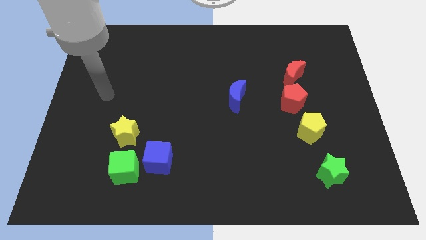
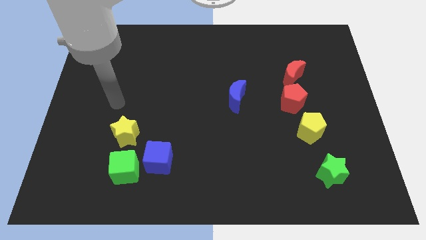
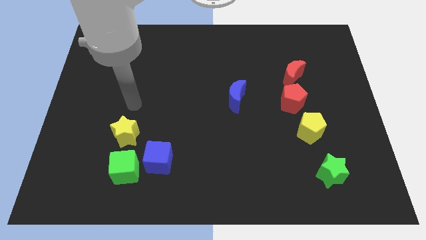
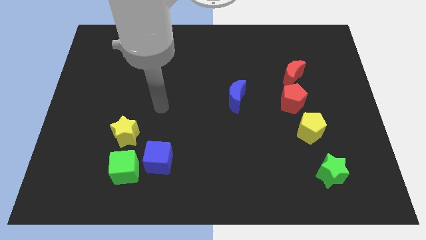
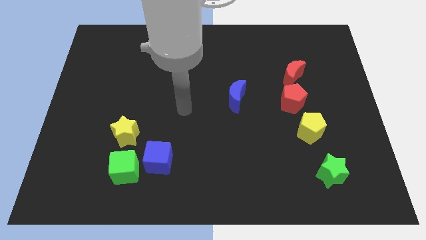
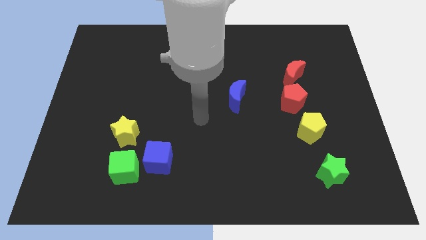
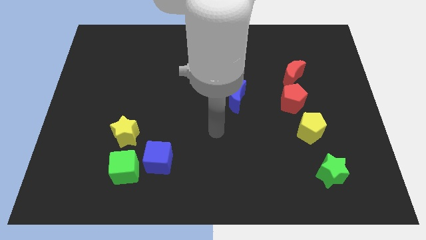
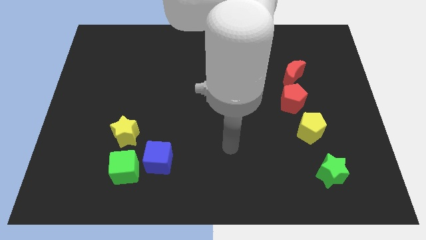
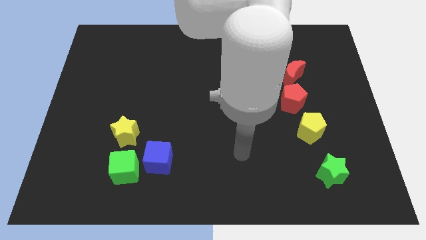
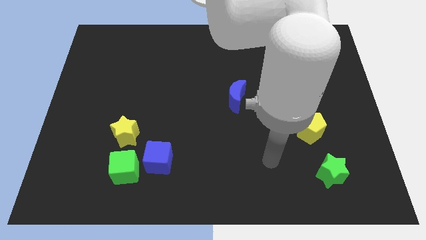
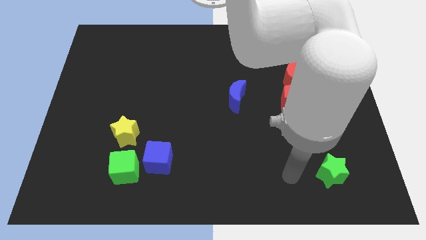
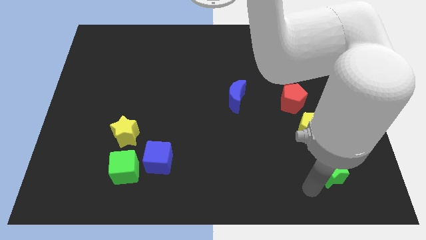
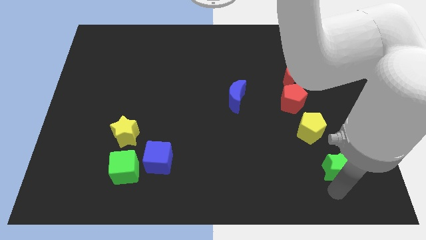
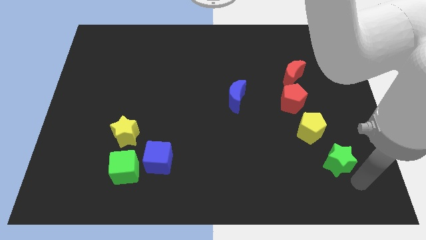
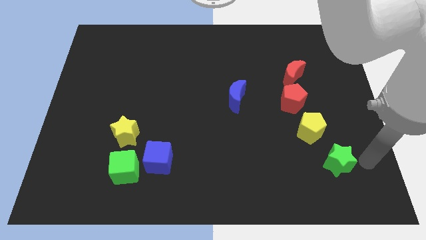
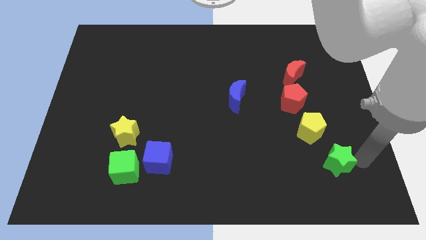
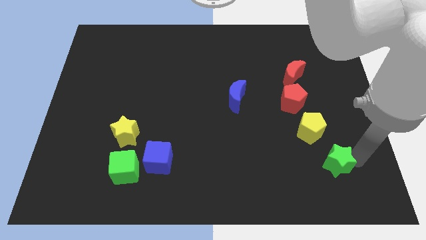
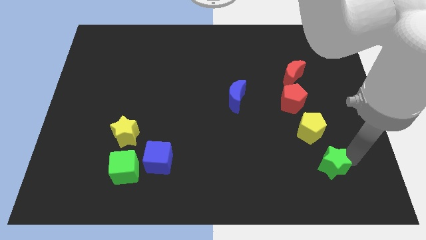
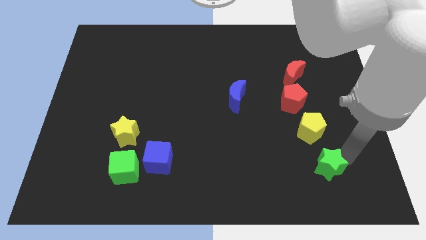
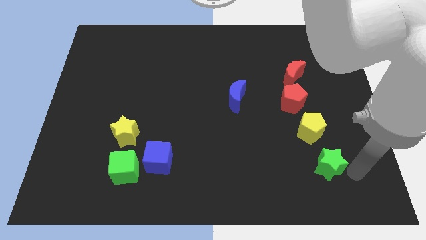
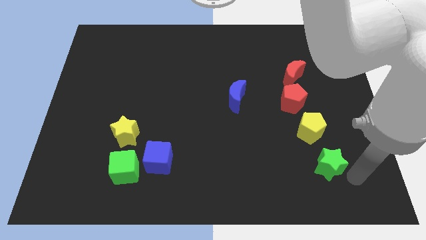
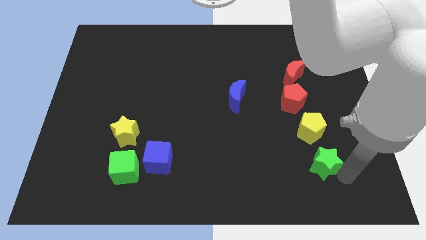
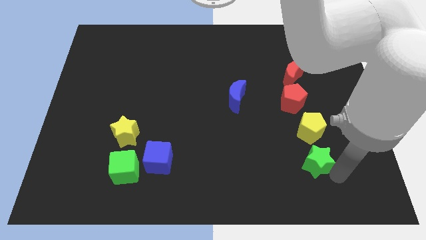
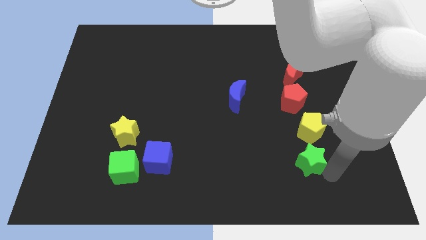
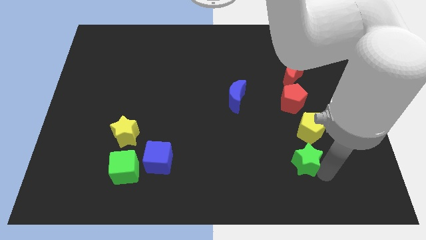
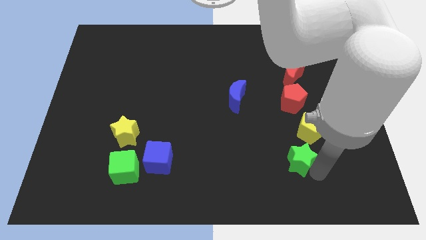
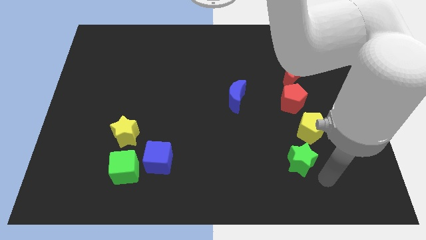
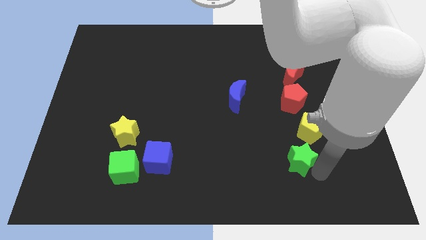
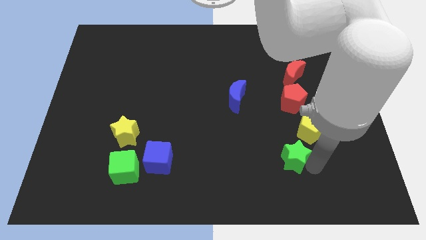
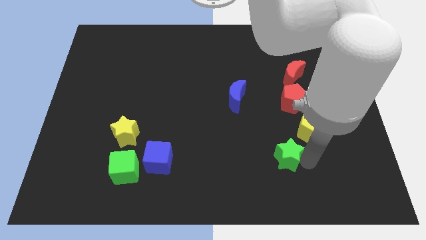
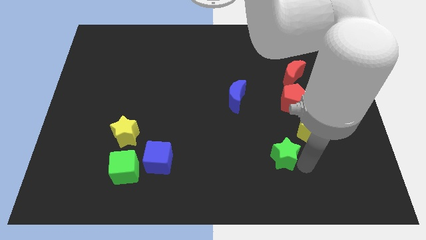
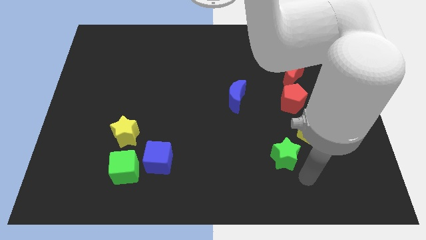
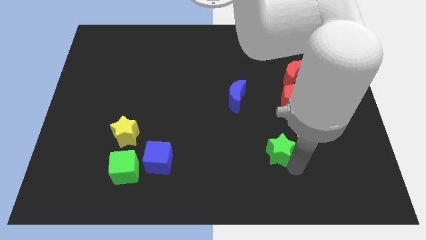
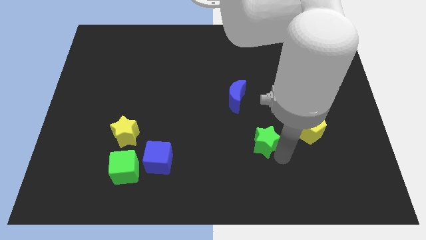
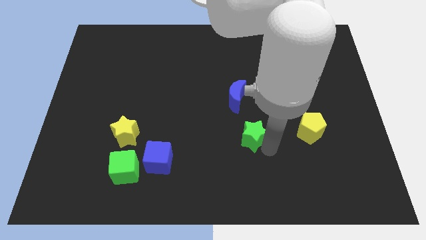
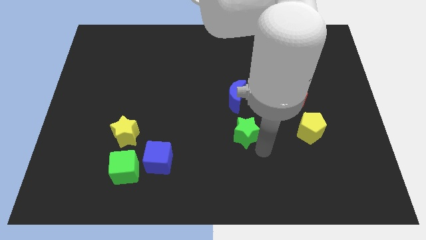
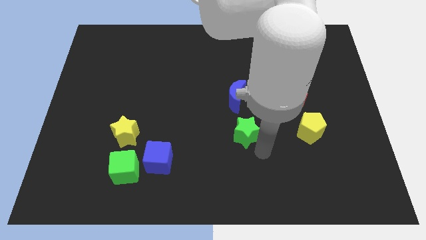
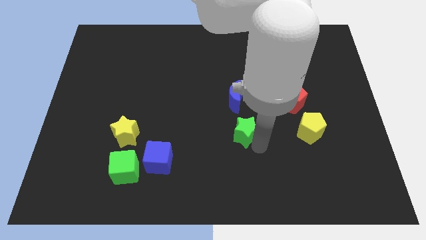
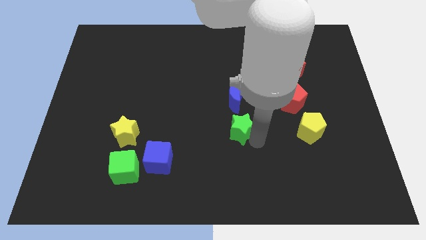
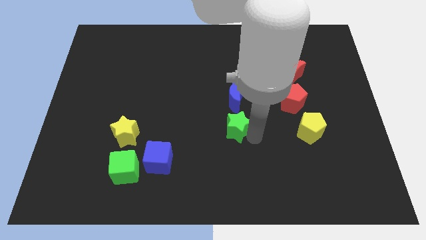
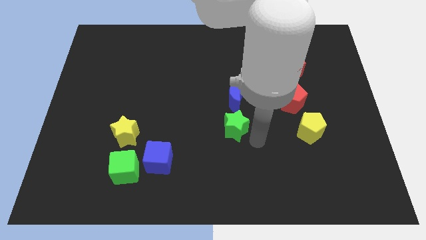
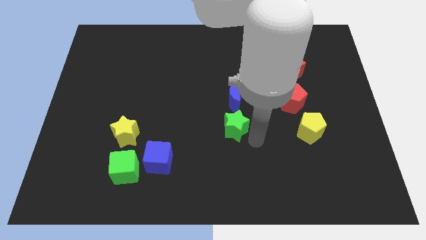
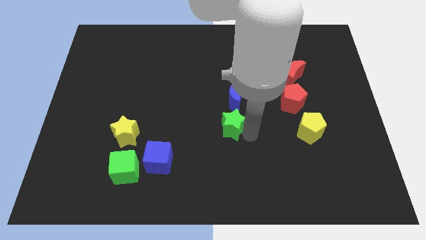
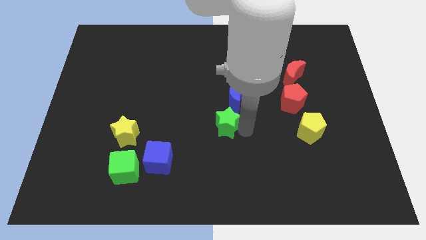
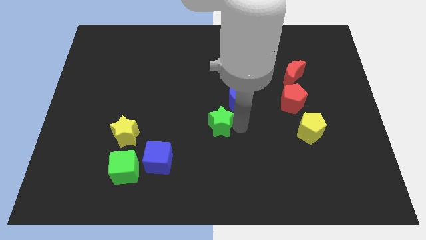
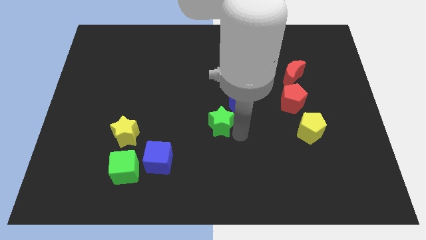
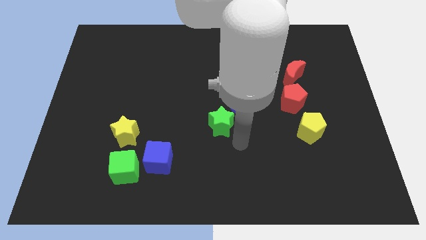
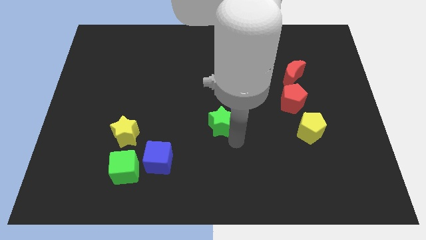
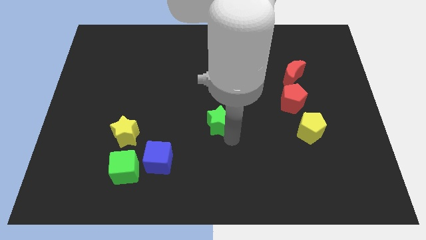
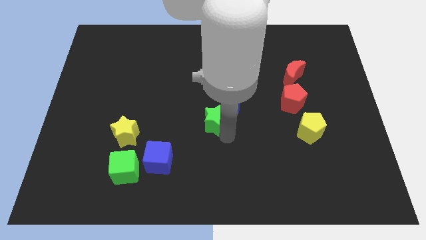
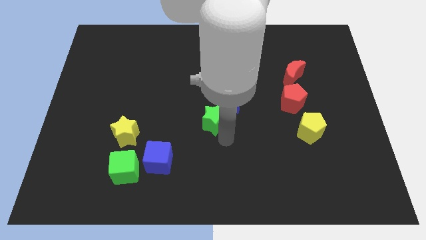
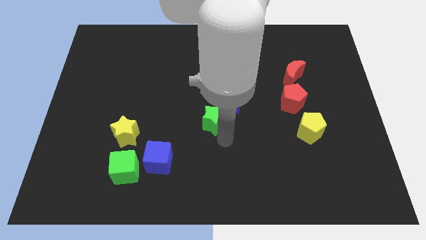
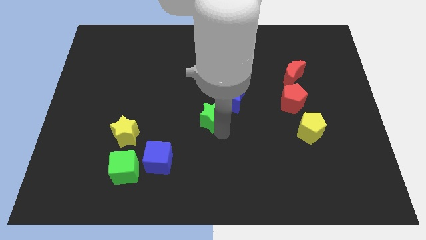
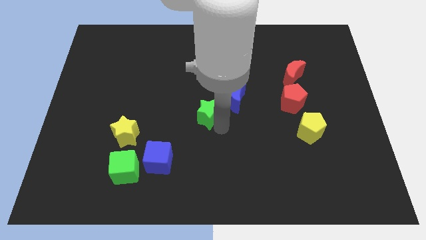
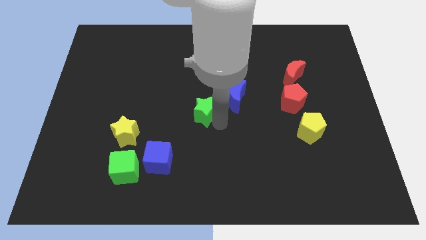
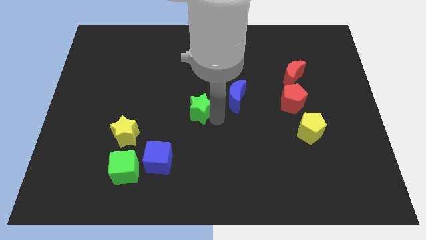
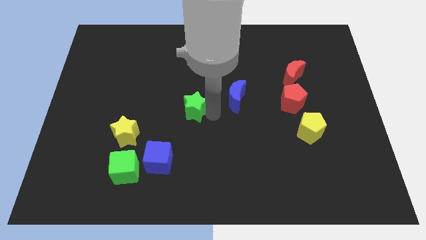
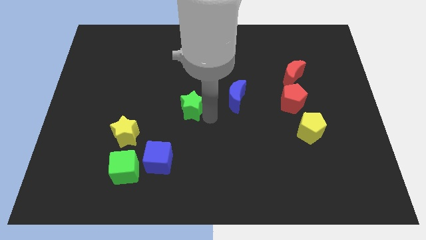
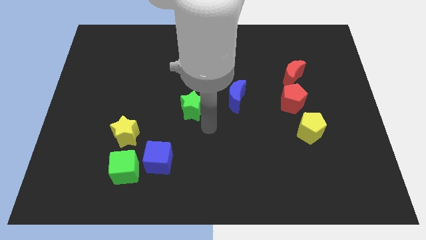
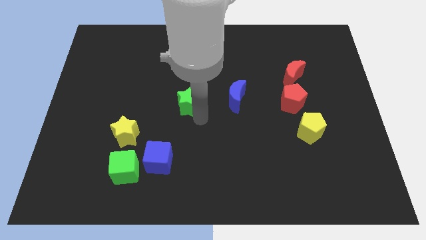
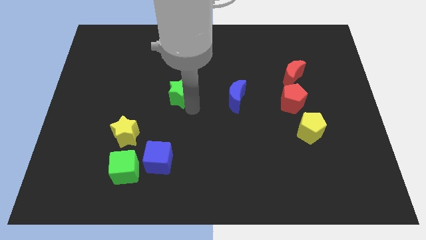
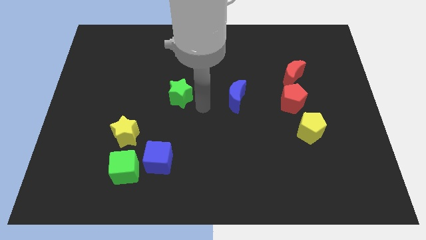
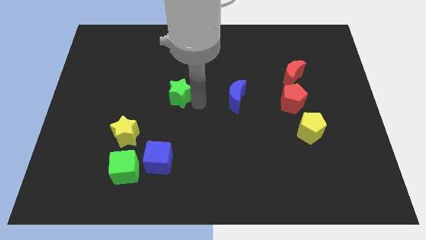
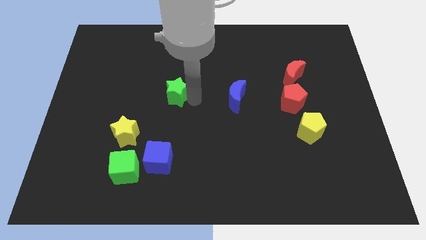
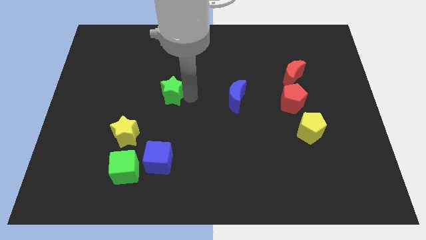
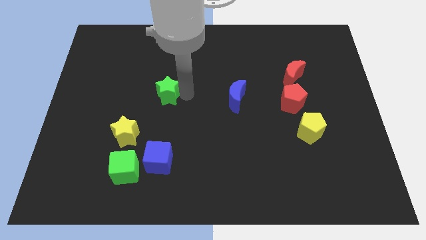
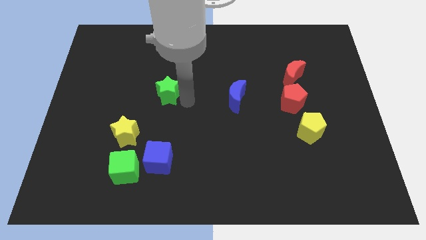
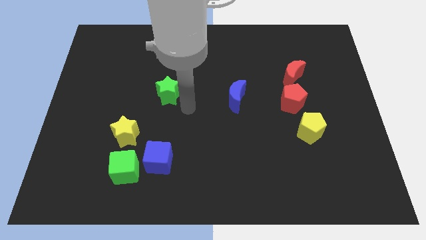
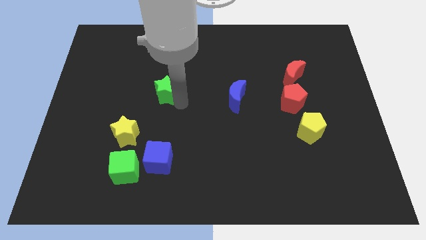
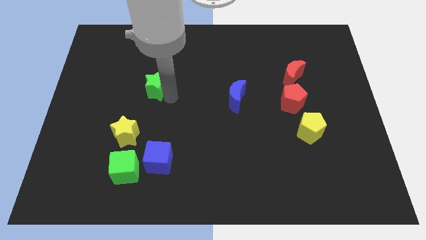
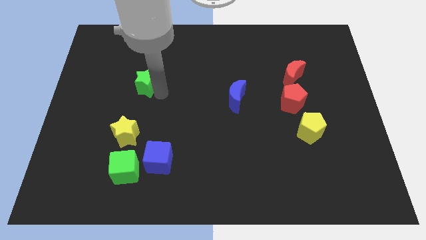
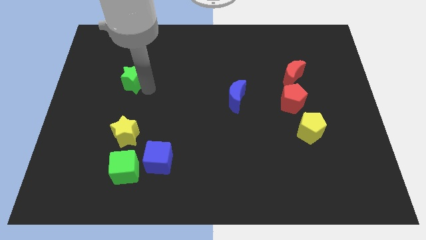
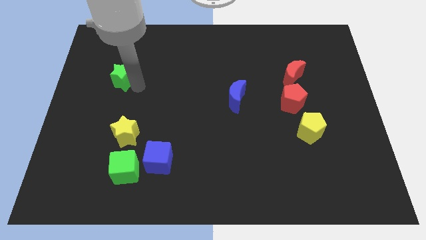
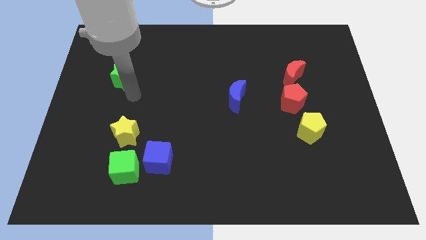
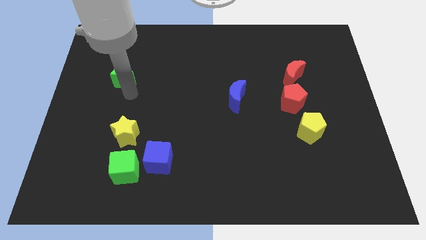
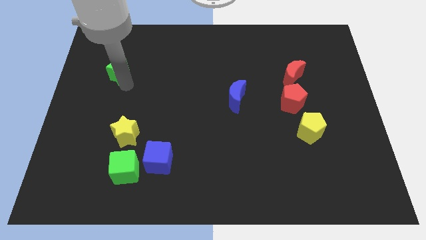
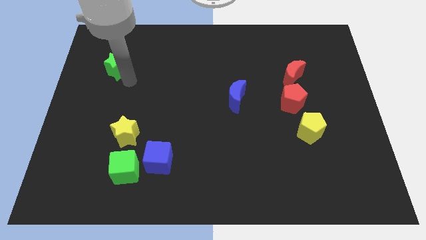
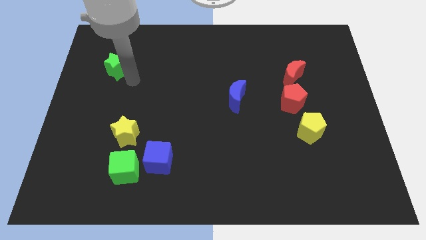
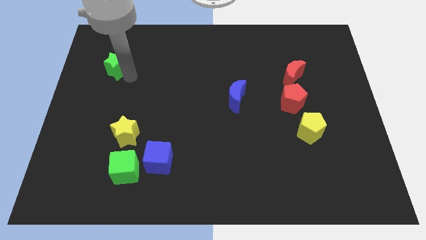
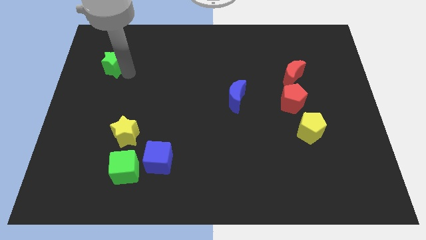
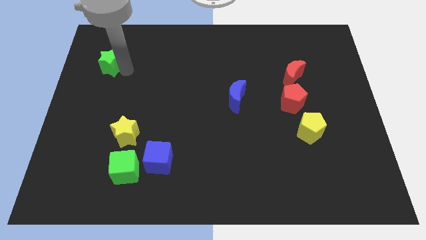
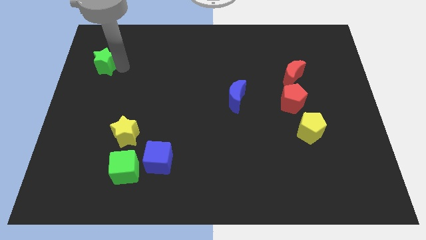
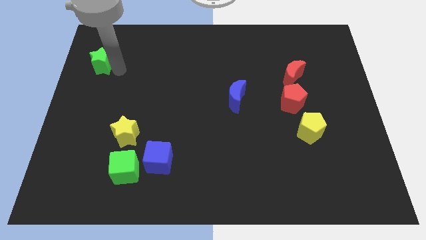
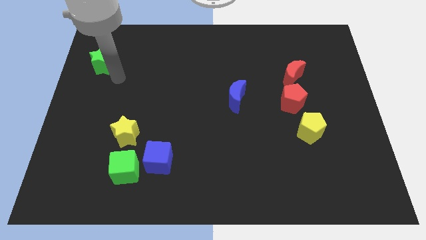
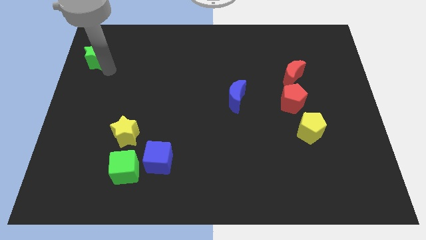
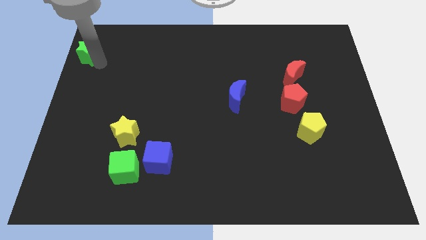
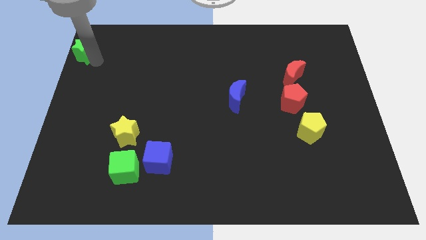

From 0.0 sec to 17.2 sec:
push the green star to the top left of the board
